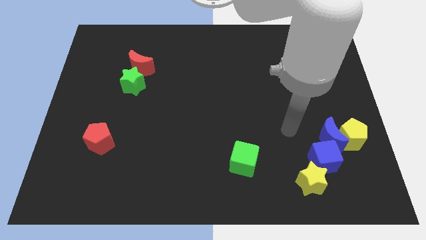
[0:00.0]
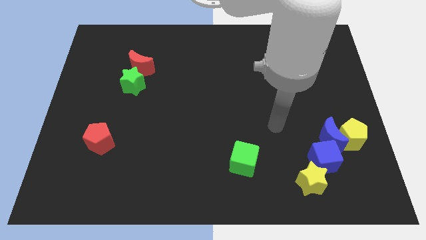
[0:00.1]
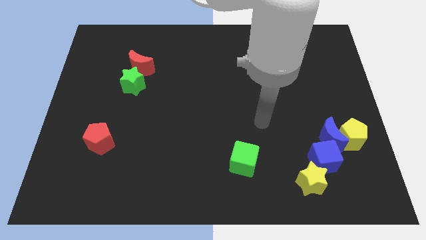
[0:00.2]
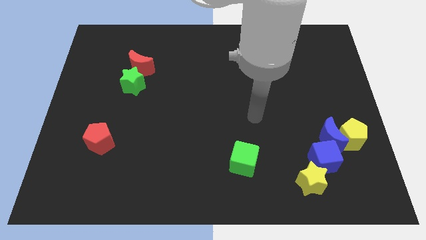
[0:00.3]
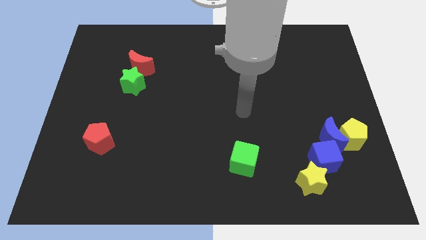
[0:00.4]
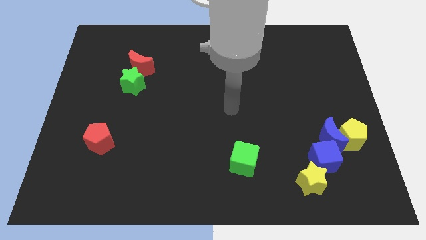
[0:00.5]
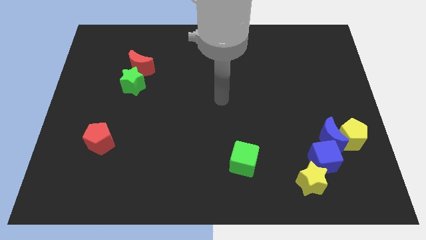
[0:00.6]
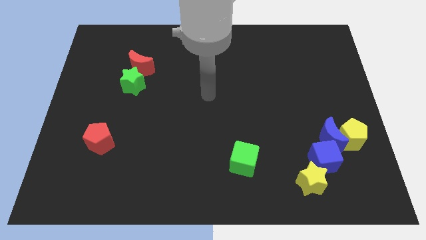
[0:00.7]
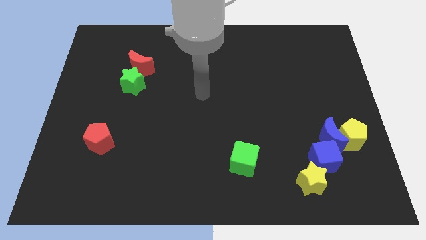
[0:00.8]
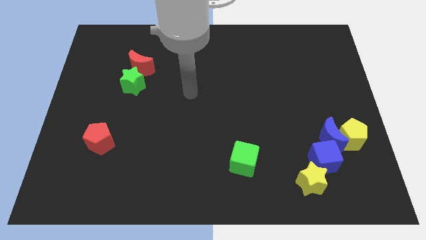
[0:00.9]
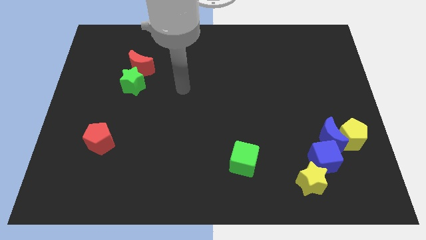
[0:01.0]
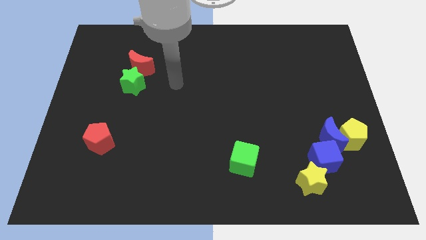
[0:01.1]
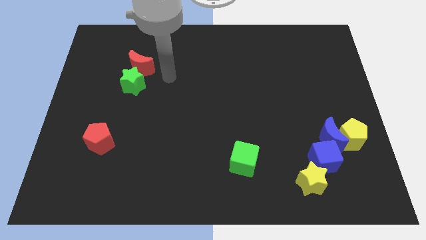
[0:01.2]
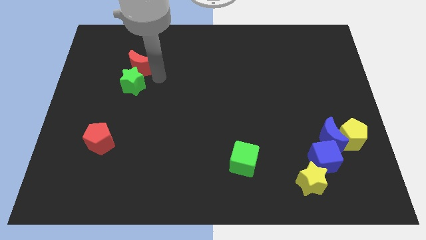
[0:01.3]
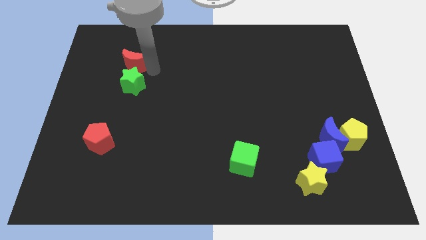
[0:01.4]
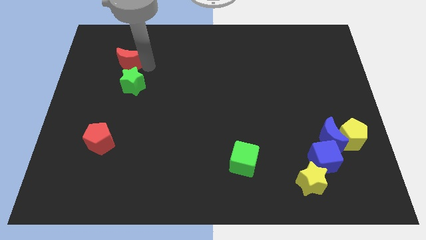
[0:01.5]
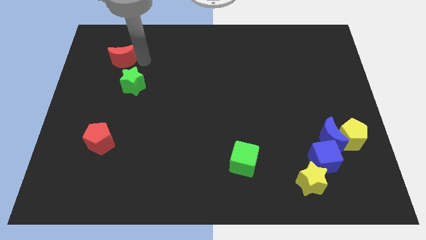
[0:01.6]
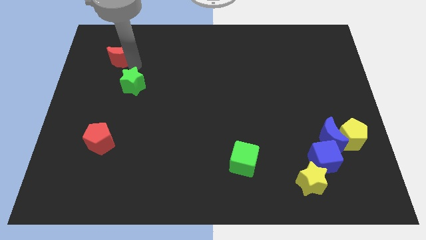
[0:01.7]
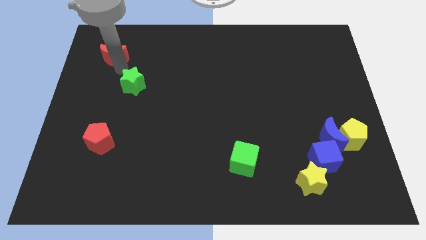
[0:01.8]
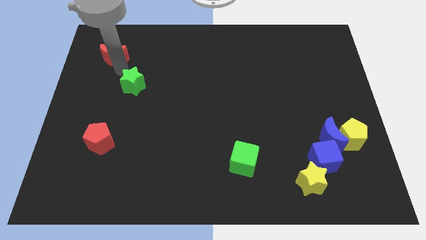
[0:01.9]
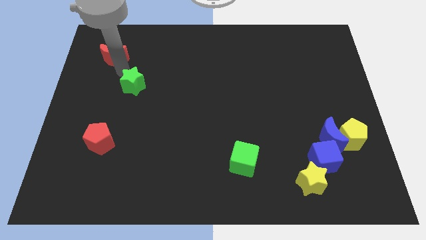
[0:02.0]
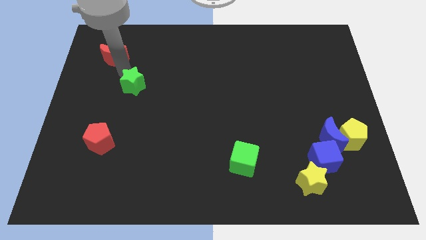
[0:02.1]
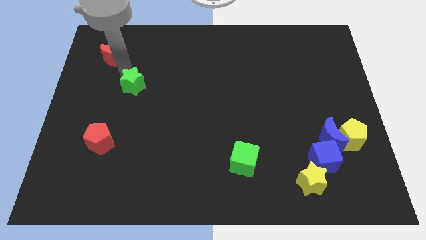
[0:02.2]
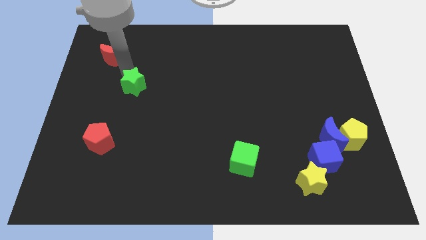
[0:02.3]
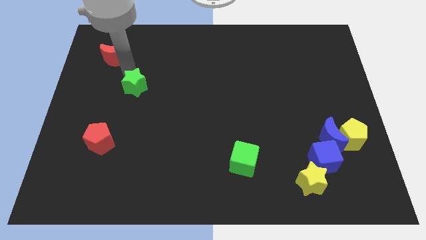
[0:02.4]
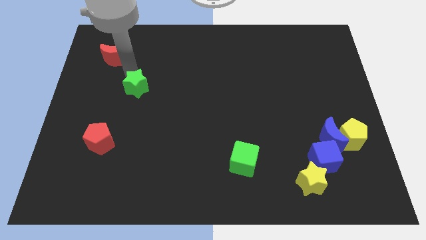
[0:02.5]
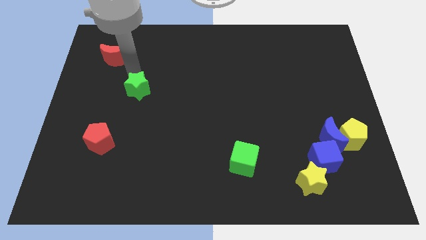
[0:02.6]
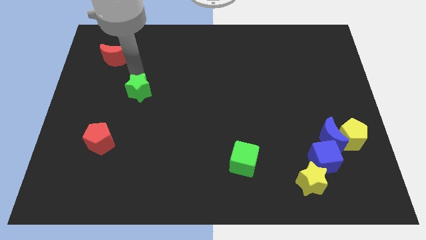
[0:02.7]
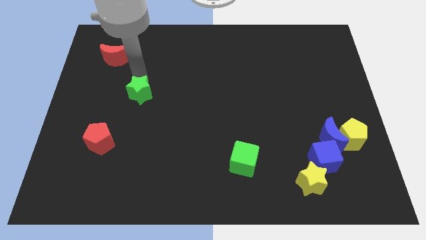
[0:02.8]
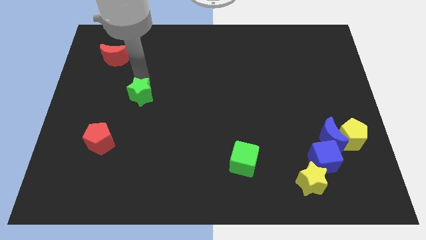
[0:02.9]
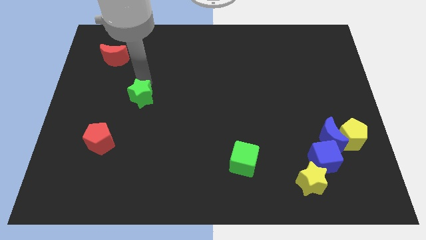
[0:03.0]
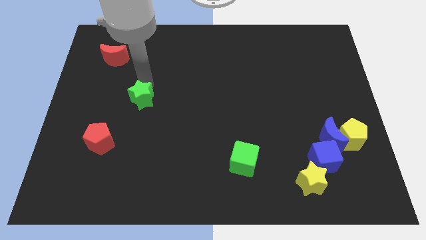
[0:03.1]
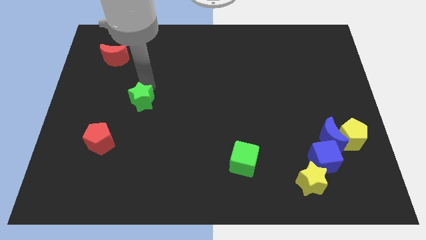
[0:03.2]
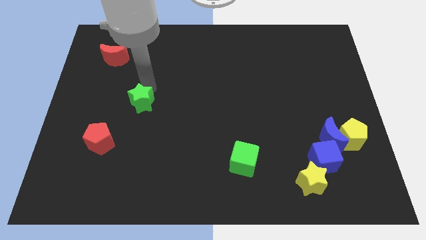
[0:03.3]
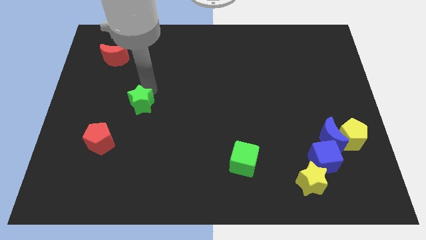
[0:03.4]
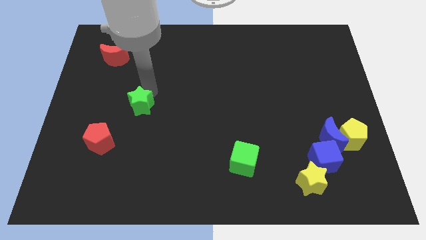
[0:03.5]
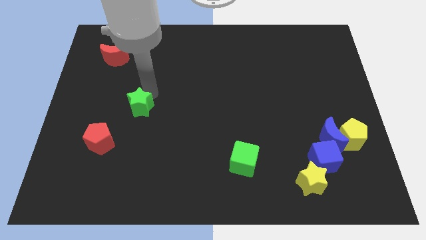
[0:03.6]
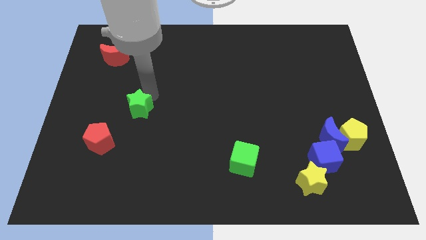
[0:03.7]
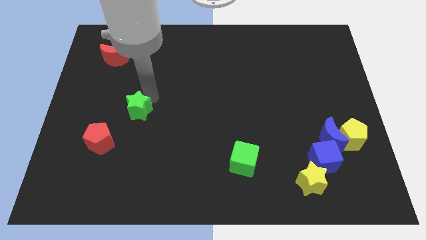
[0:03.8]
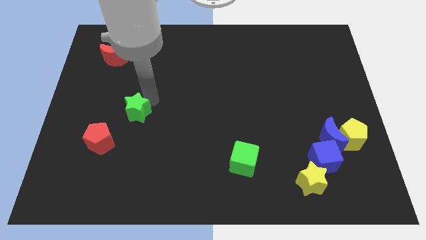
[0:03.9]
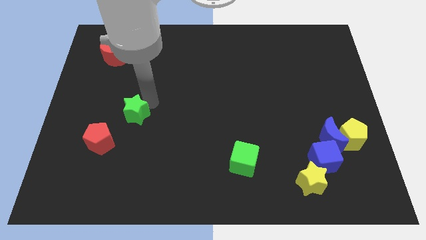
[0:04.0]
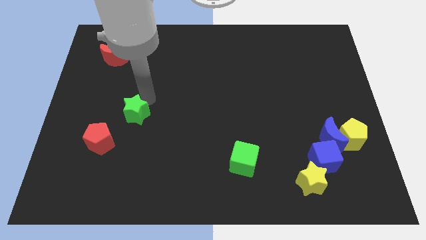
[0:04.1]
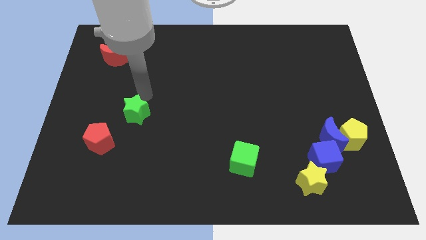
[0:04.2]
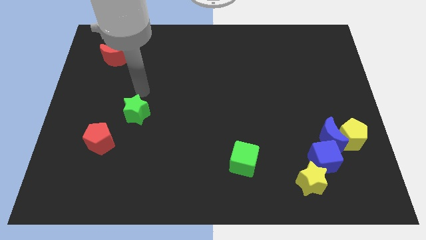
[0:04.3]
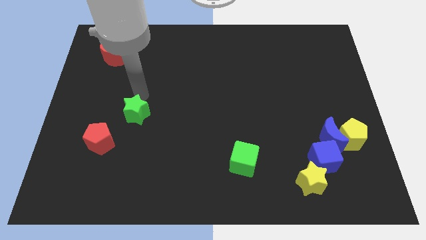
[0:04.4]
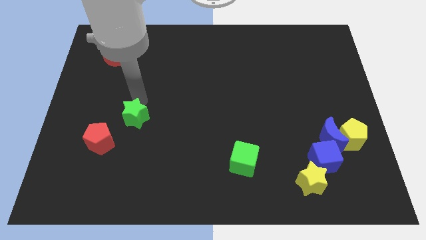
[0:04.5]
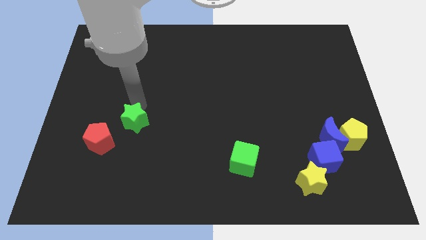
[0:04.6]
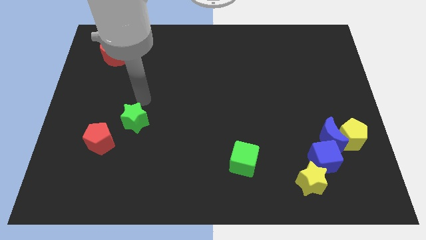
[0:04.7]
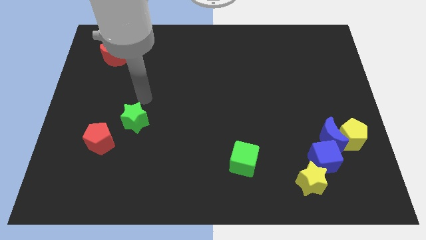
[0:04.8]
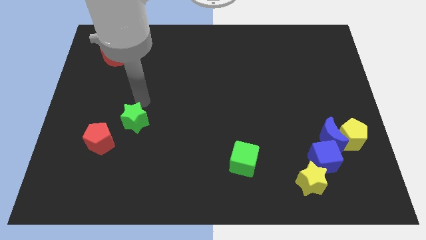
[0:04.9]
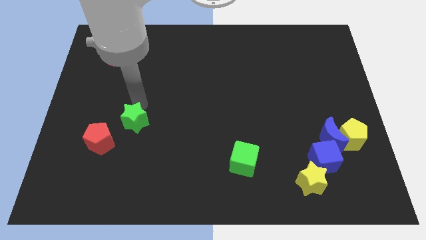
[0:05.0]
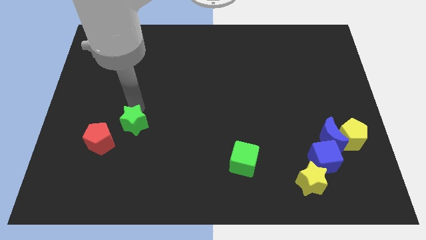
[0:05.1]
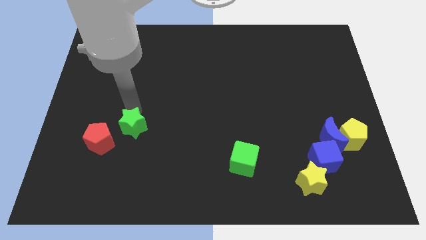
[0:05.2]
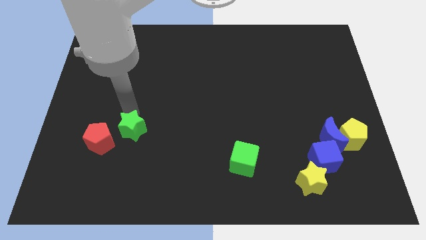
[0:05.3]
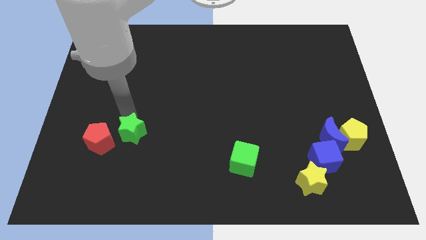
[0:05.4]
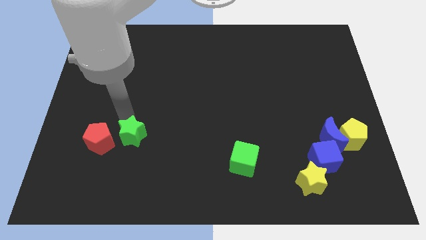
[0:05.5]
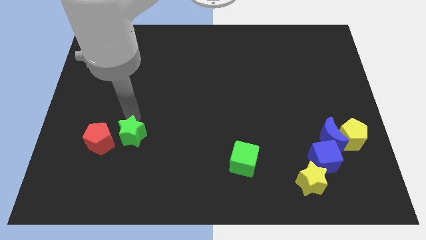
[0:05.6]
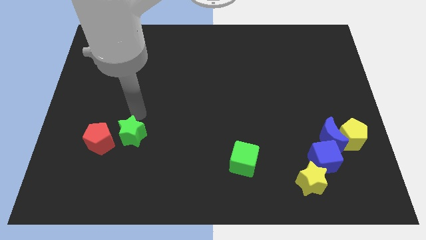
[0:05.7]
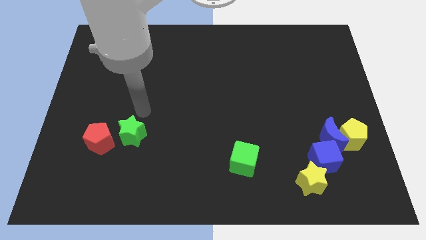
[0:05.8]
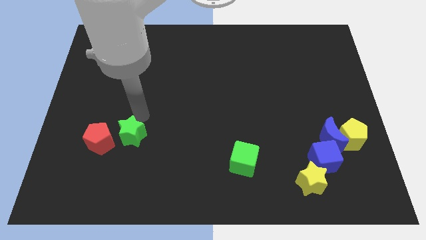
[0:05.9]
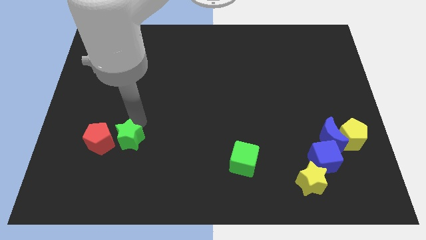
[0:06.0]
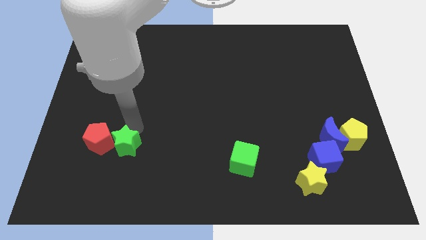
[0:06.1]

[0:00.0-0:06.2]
push the green star to the bottom right side of the red pentagon
